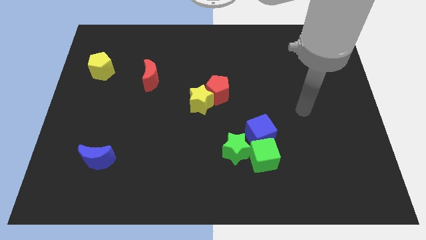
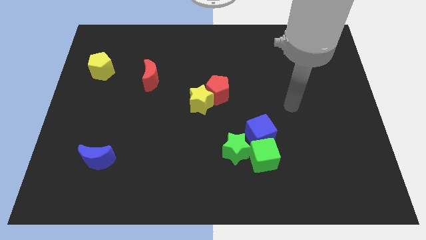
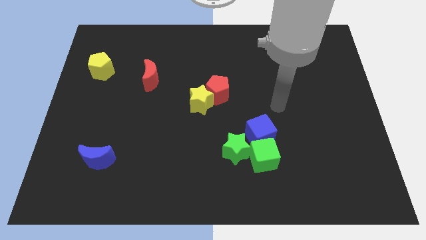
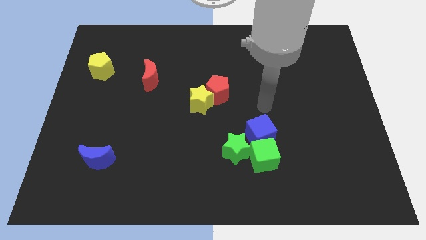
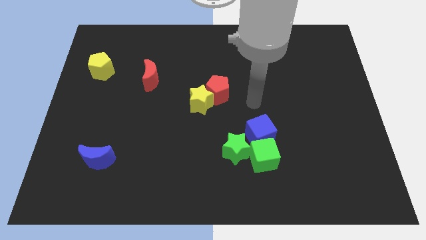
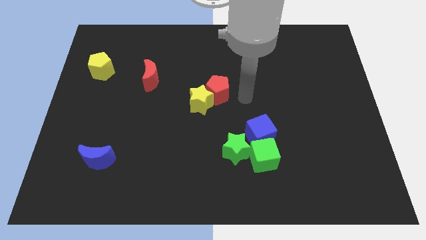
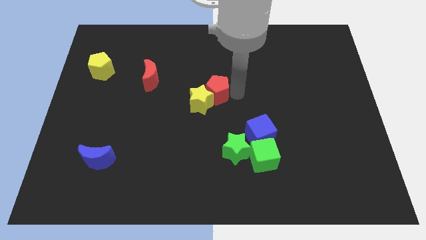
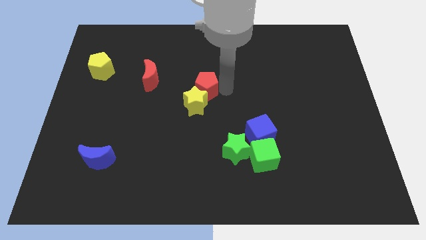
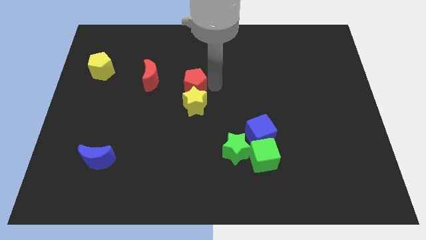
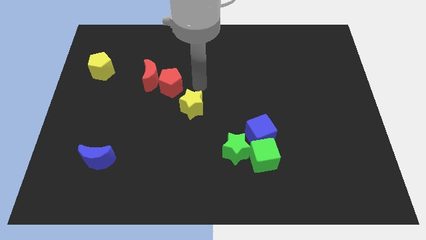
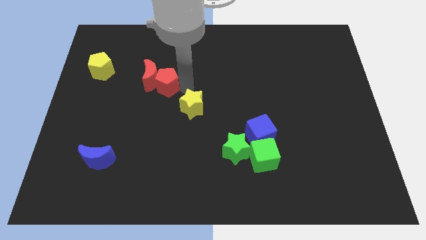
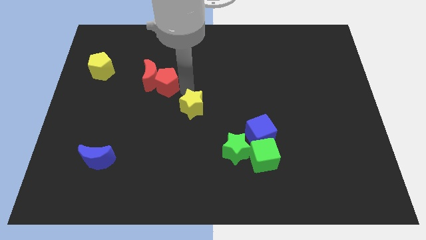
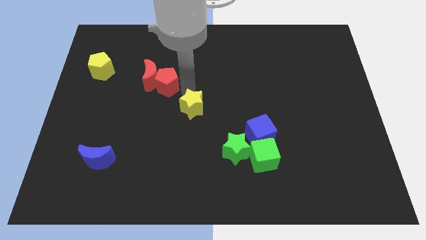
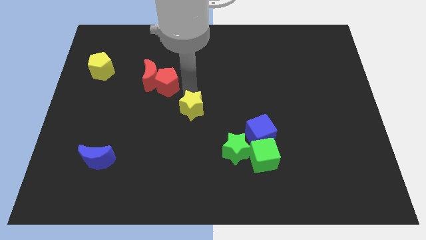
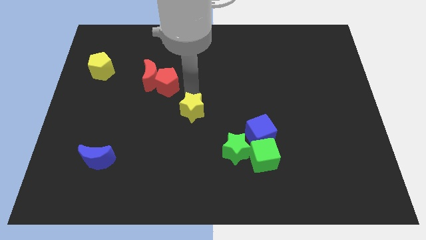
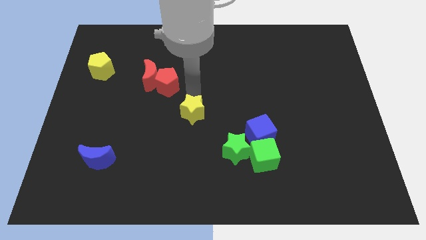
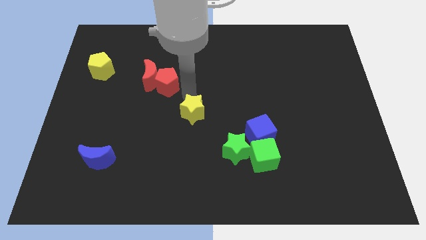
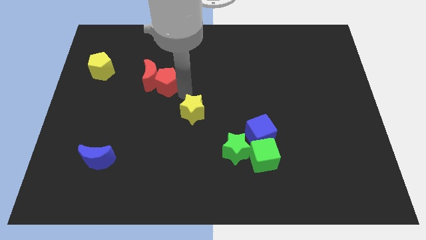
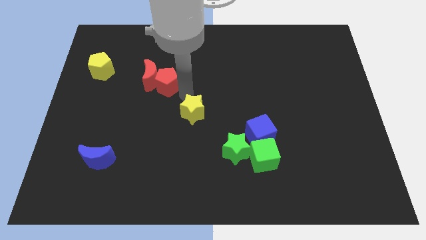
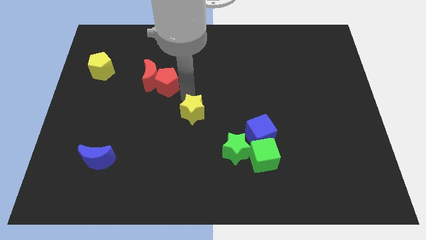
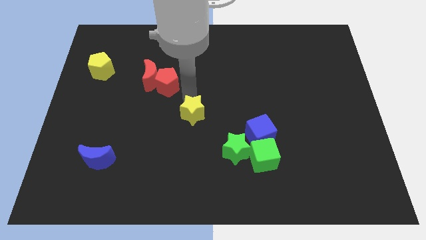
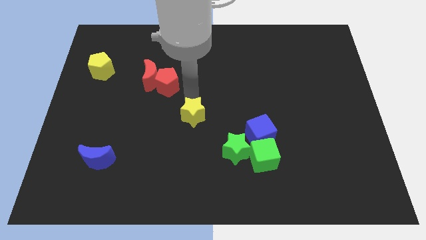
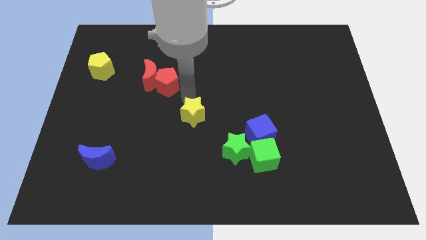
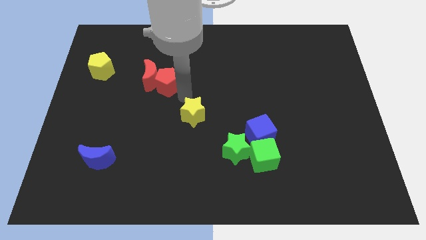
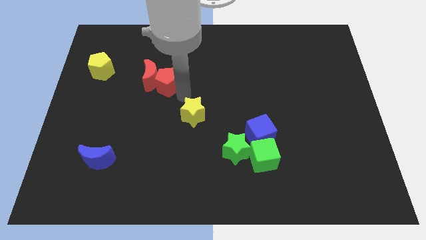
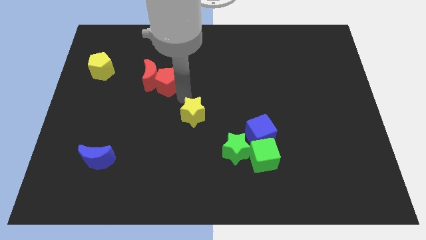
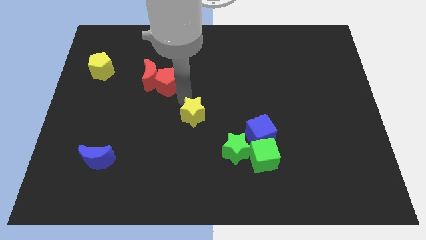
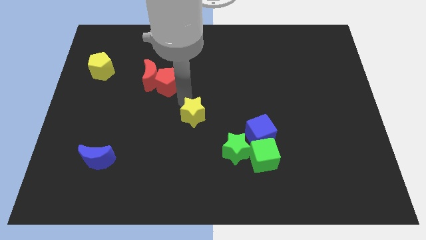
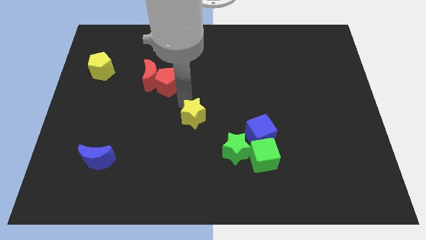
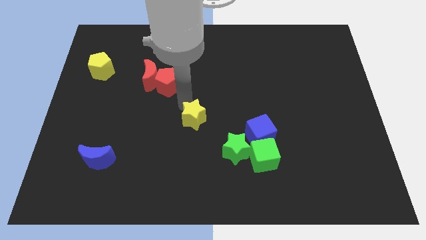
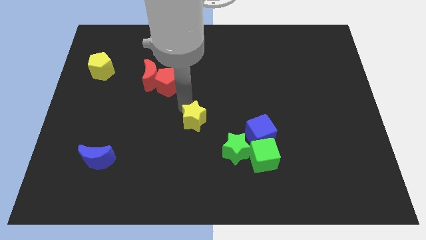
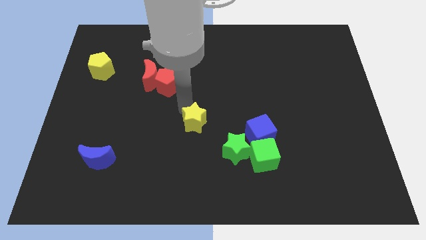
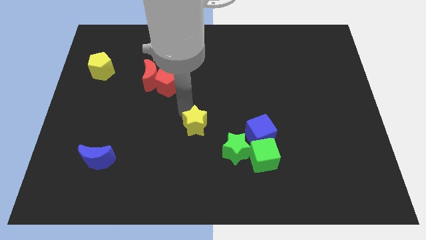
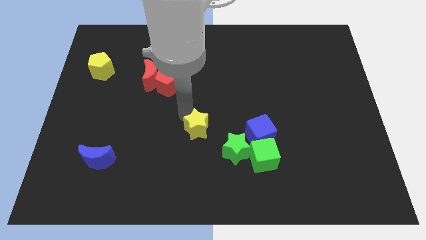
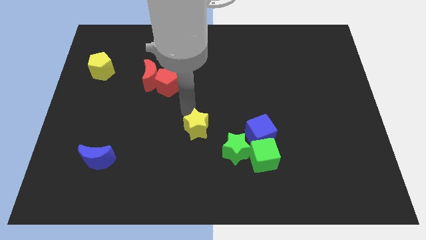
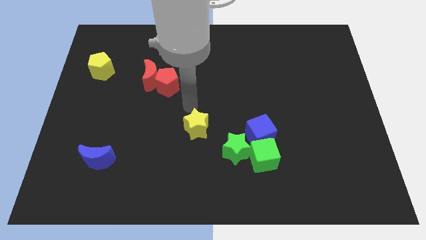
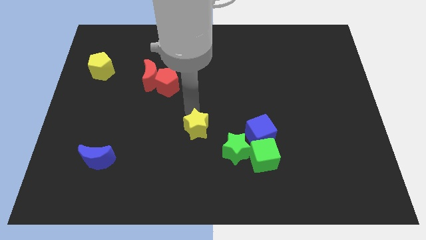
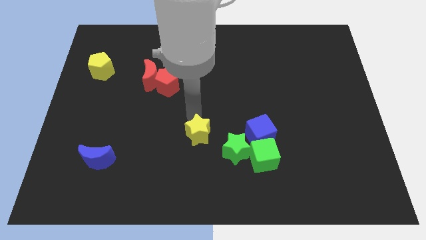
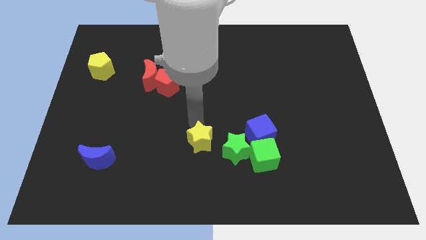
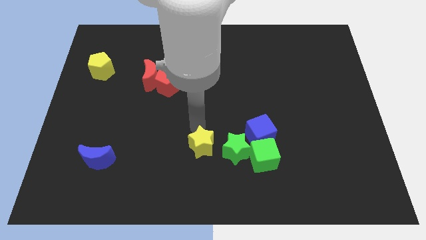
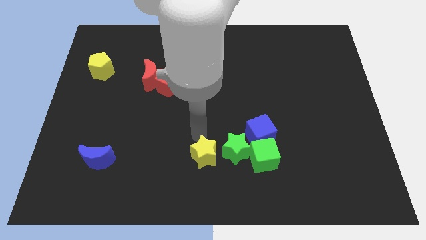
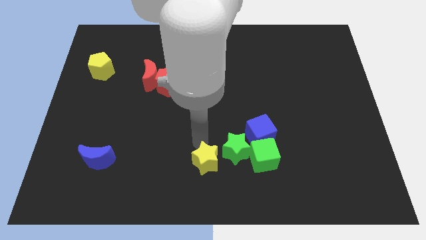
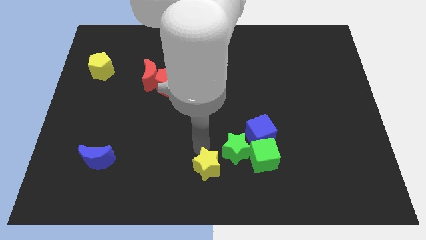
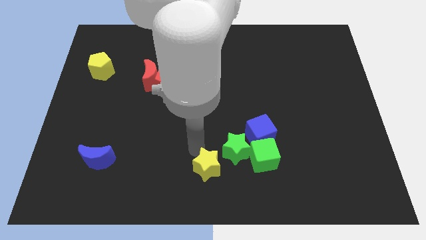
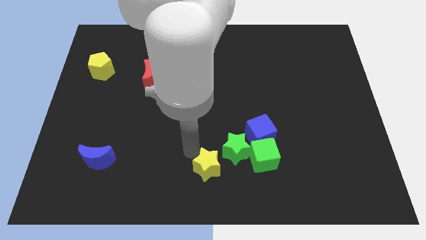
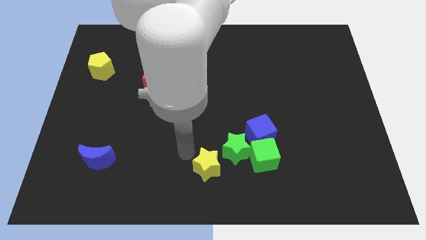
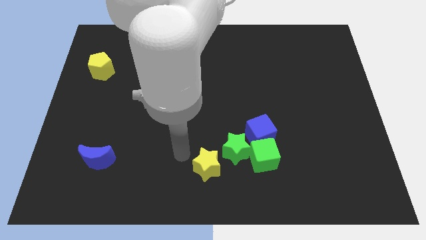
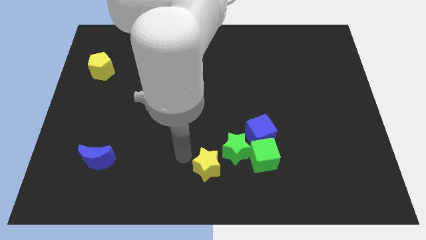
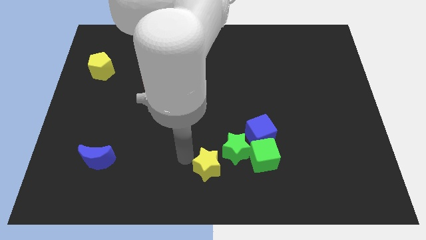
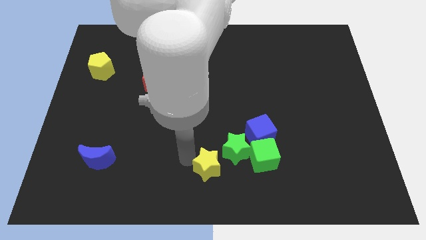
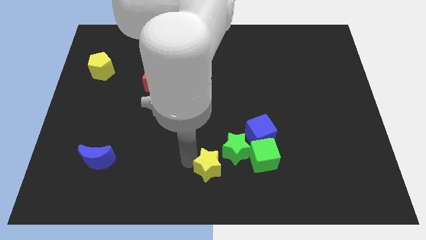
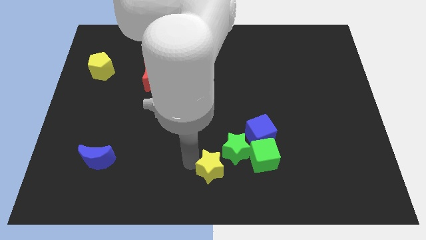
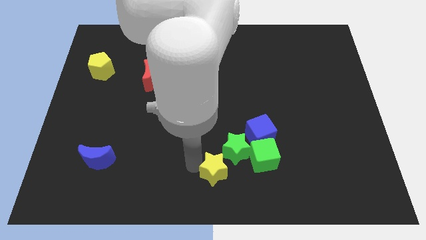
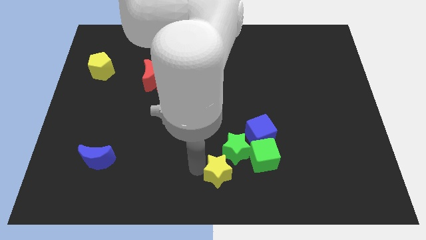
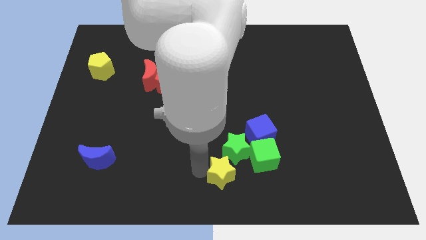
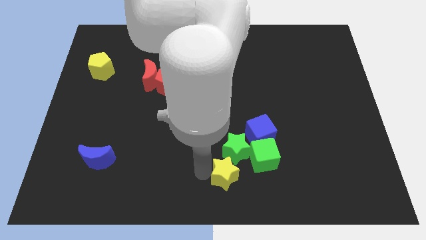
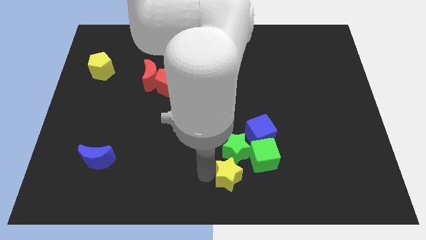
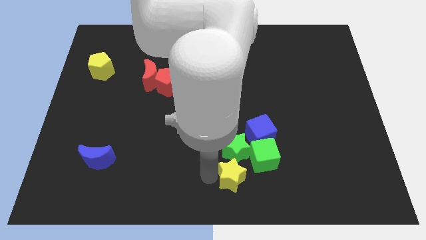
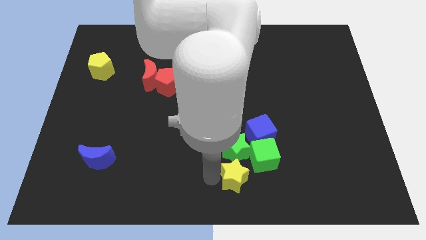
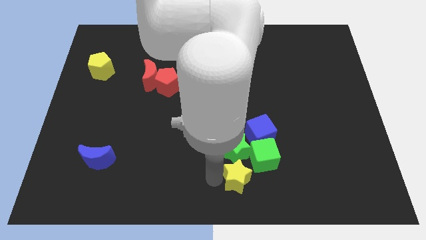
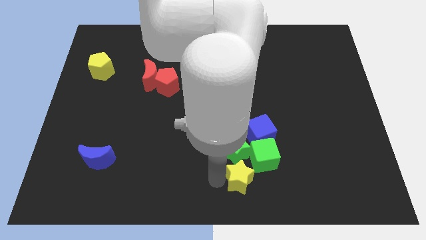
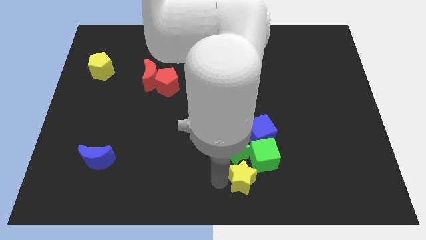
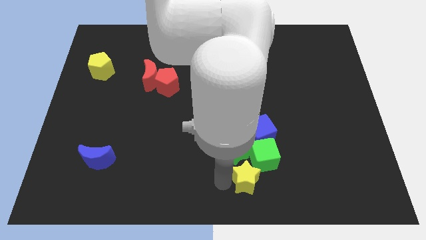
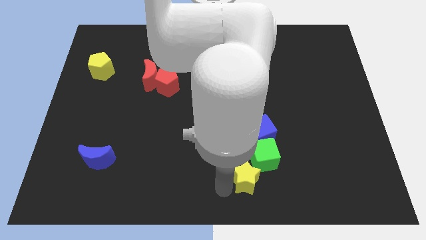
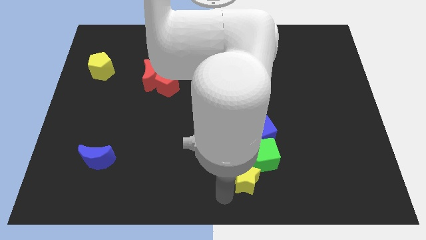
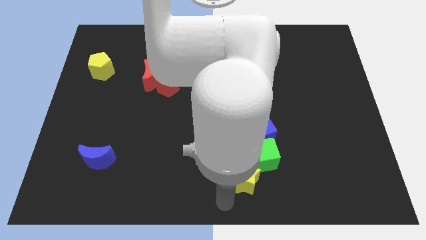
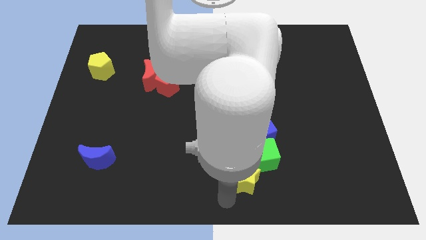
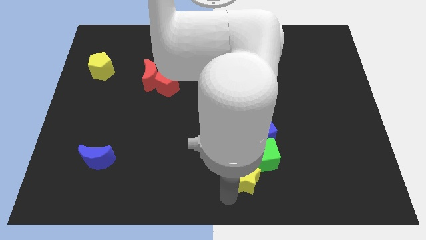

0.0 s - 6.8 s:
slide the yellow star next to the green cube

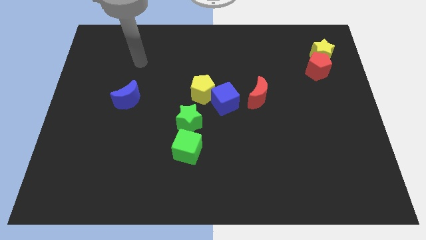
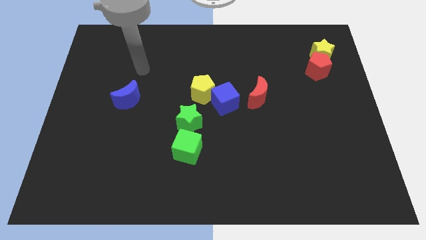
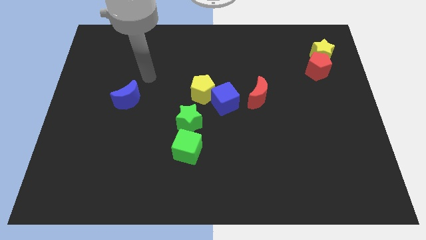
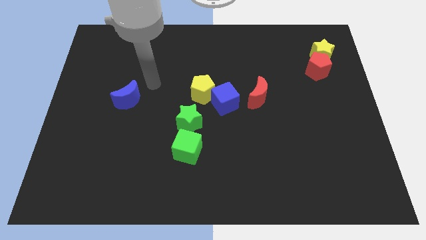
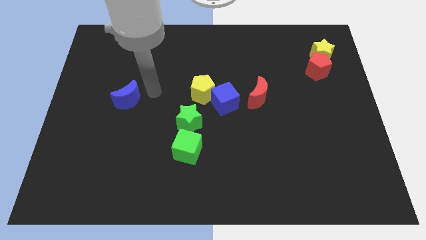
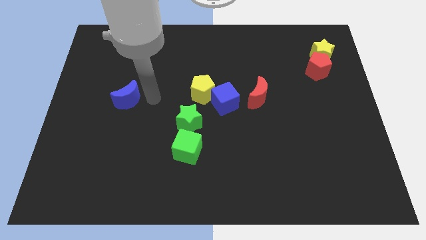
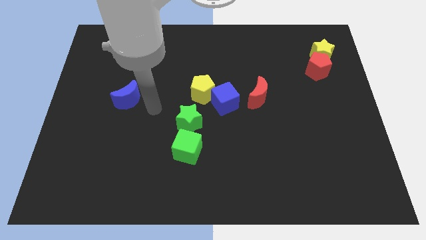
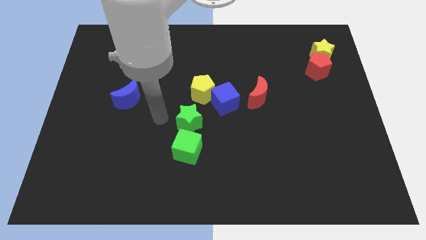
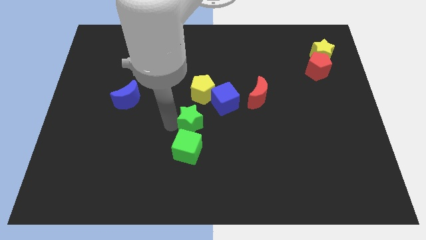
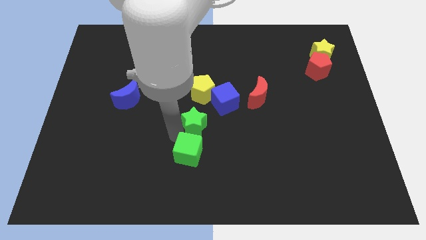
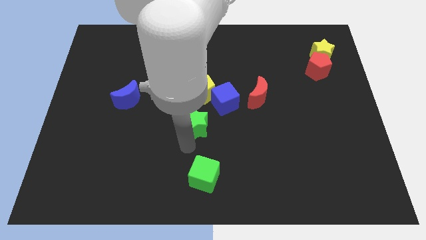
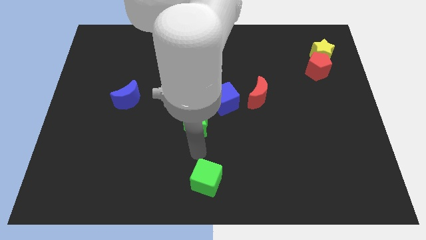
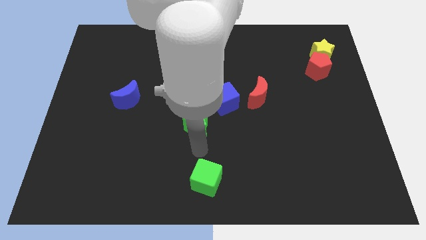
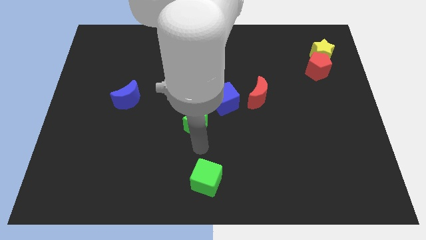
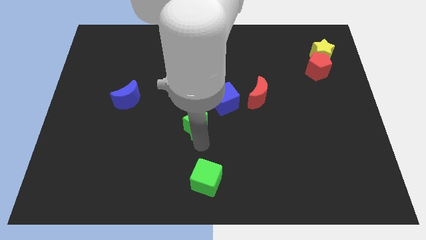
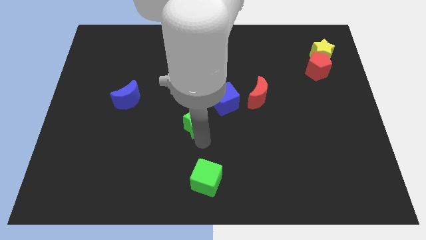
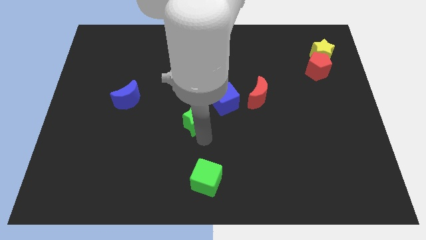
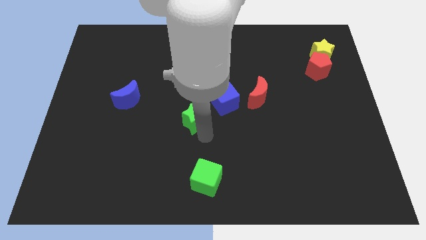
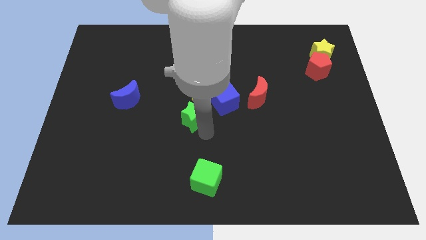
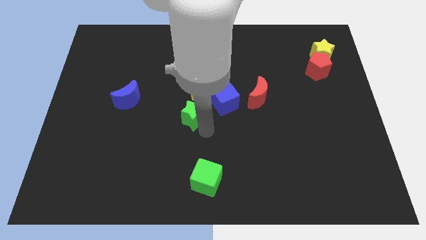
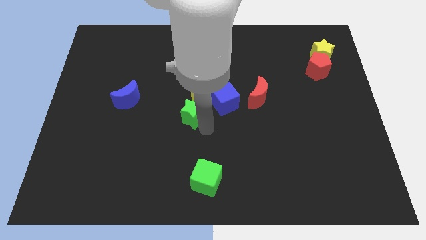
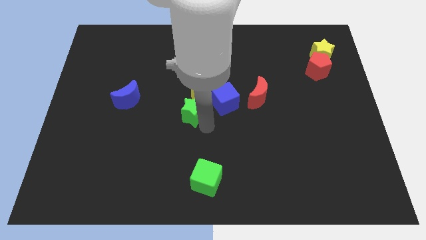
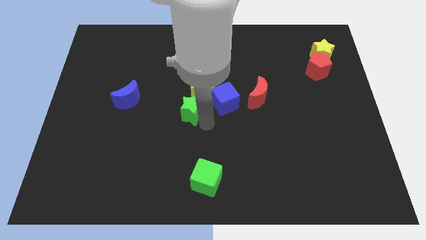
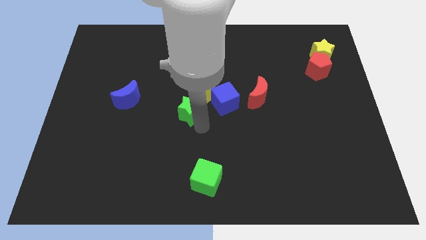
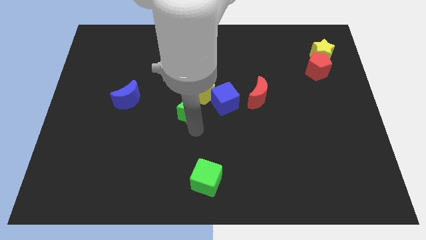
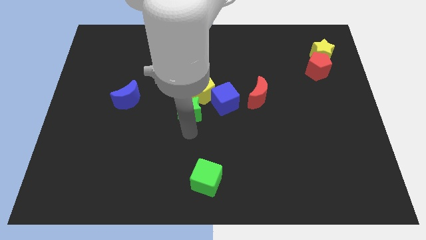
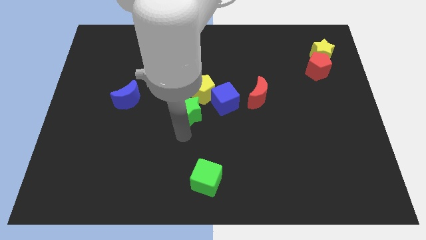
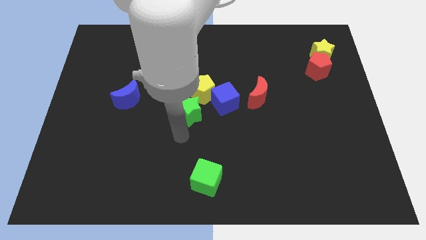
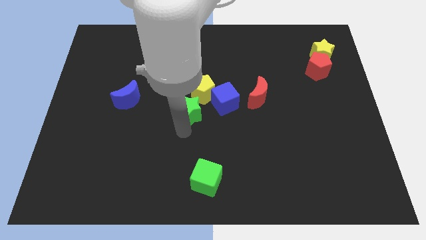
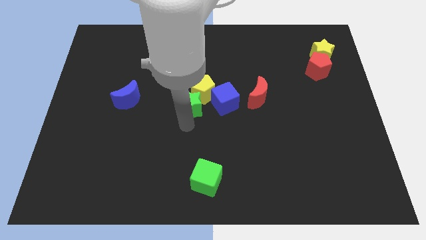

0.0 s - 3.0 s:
push the green star to the yellow pentagon
